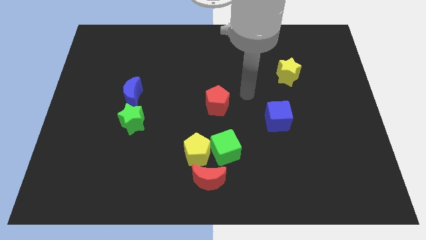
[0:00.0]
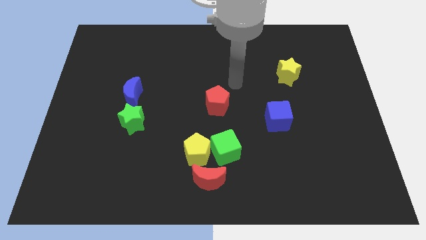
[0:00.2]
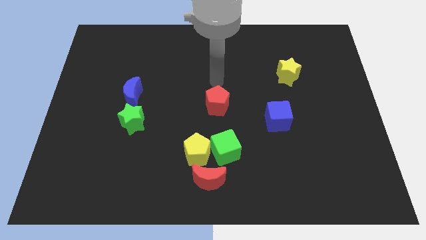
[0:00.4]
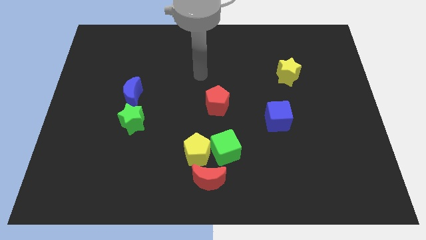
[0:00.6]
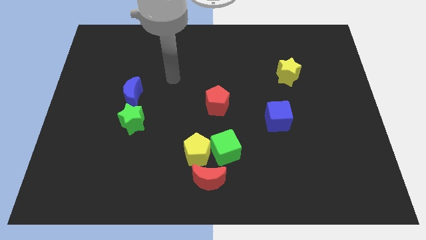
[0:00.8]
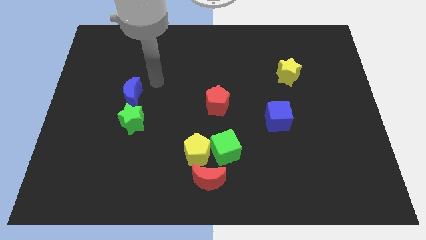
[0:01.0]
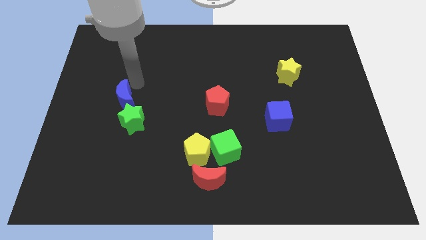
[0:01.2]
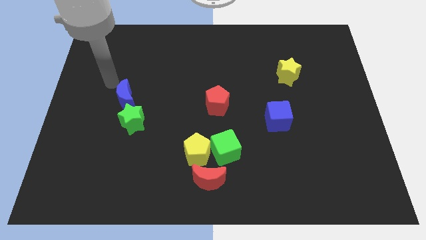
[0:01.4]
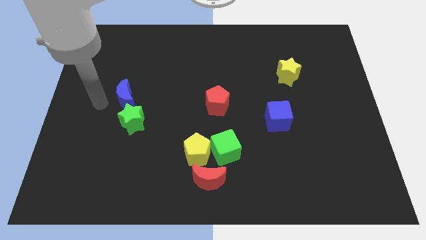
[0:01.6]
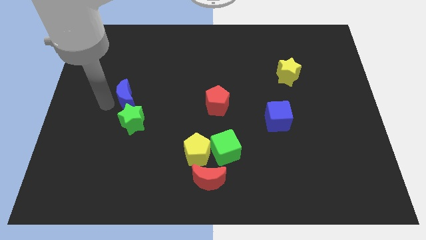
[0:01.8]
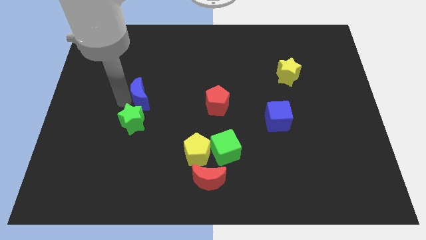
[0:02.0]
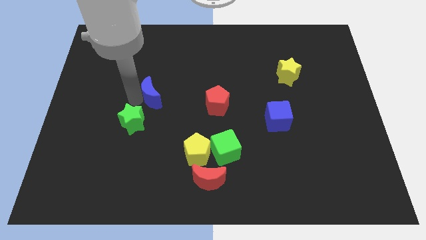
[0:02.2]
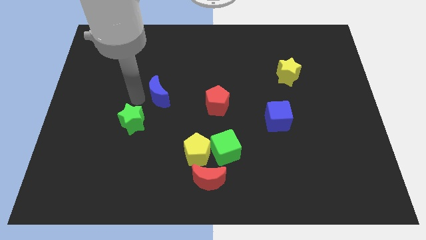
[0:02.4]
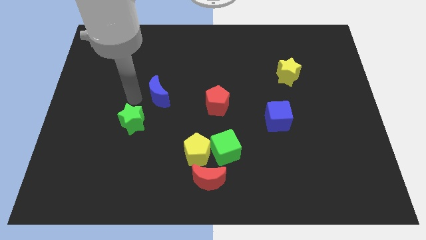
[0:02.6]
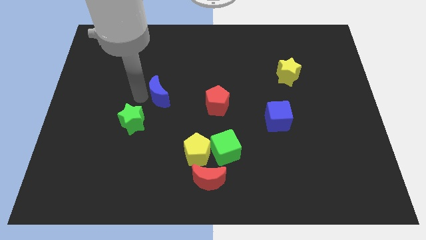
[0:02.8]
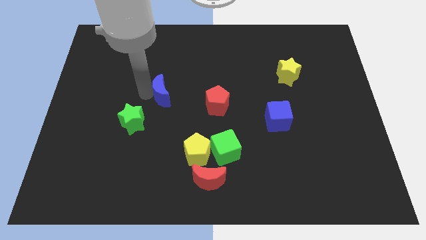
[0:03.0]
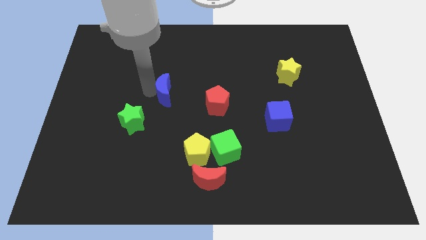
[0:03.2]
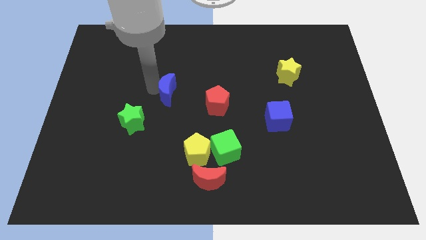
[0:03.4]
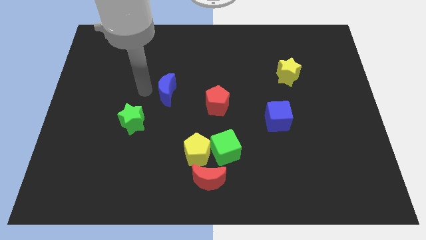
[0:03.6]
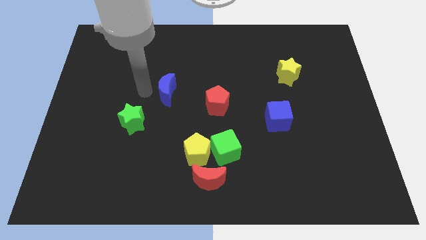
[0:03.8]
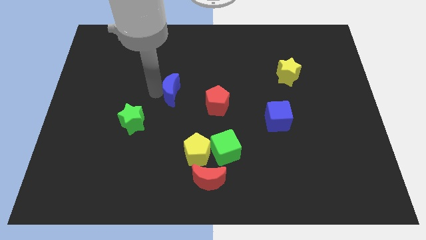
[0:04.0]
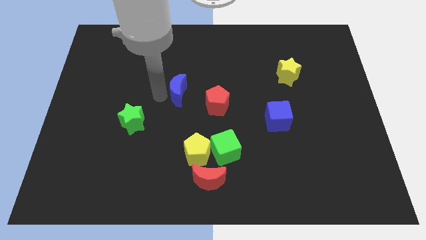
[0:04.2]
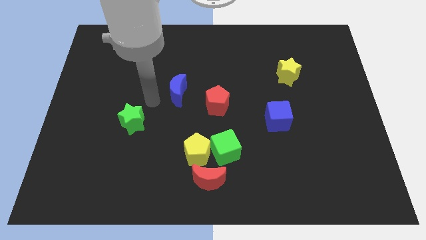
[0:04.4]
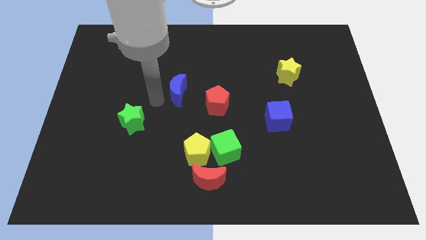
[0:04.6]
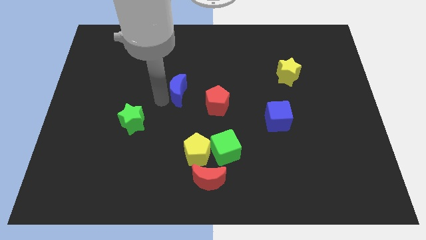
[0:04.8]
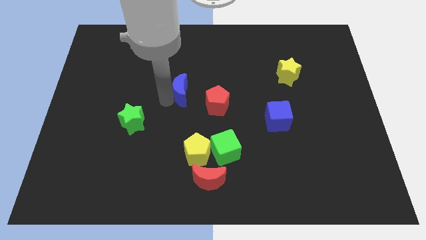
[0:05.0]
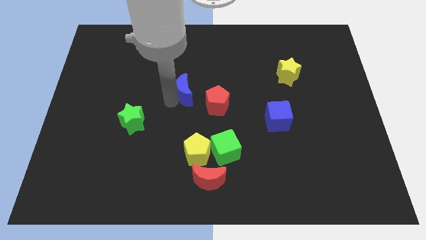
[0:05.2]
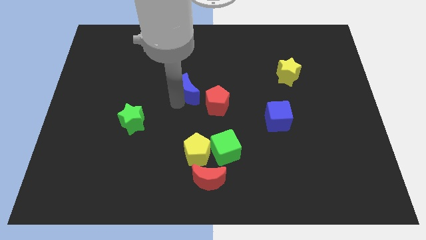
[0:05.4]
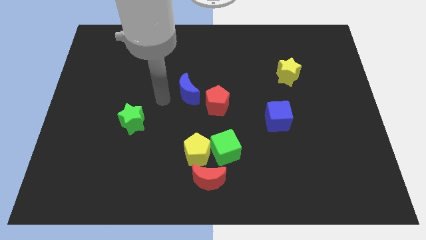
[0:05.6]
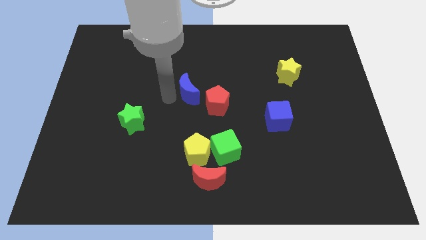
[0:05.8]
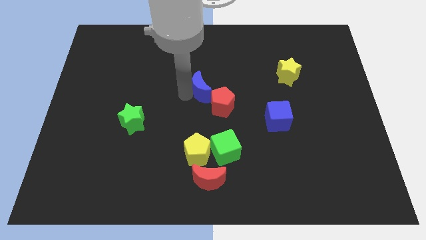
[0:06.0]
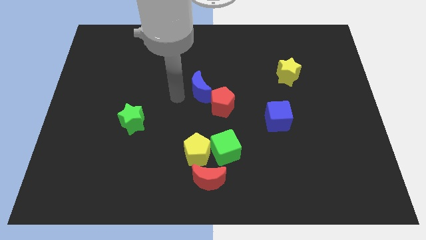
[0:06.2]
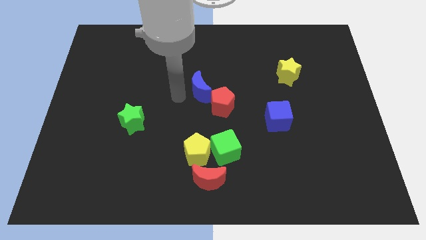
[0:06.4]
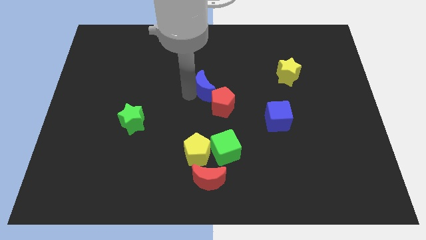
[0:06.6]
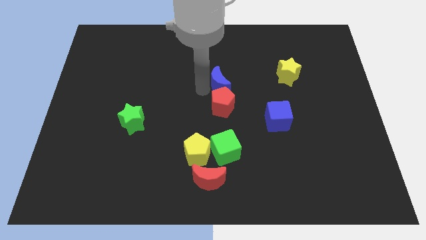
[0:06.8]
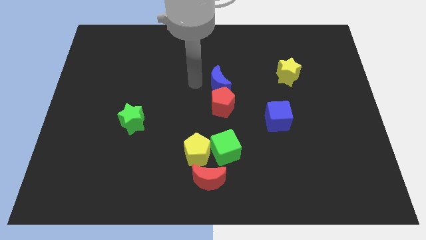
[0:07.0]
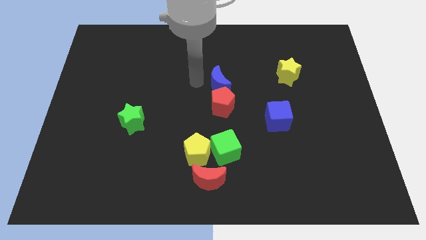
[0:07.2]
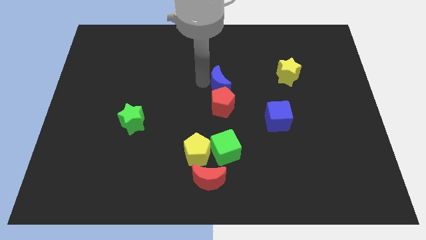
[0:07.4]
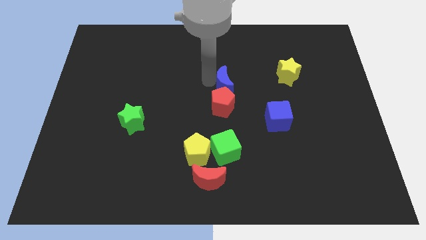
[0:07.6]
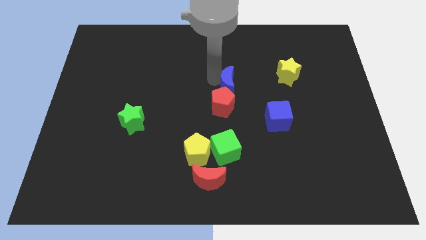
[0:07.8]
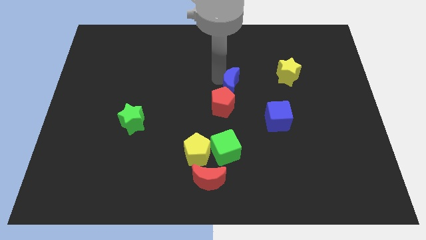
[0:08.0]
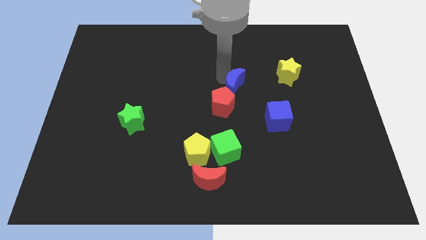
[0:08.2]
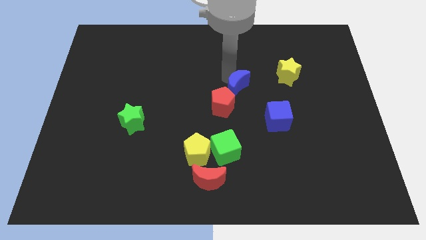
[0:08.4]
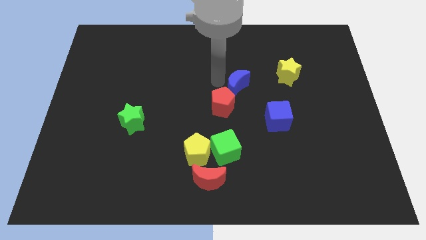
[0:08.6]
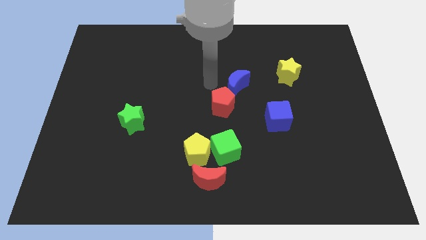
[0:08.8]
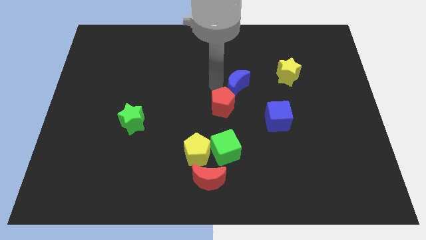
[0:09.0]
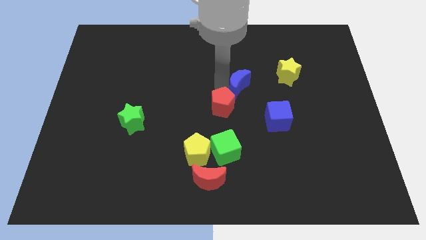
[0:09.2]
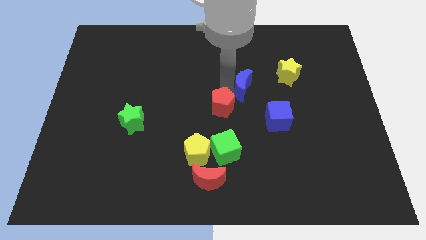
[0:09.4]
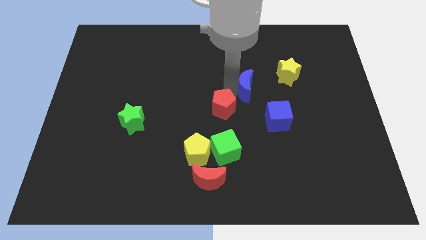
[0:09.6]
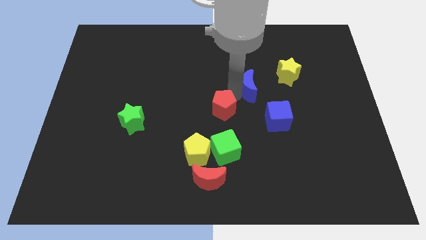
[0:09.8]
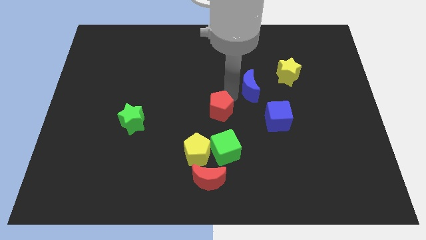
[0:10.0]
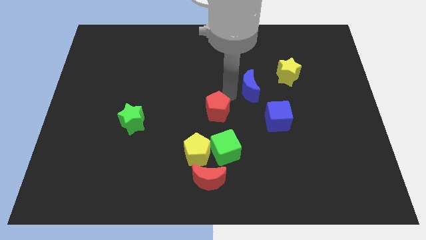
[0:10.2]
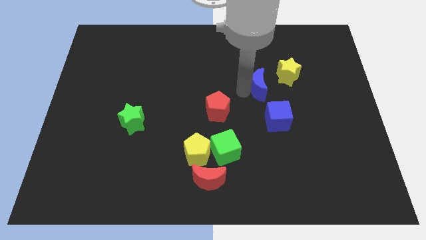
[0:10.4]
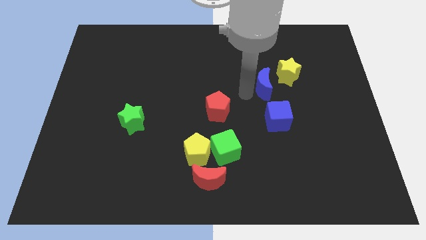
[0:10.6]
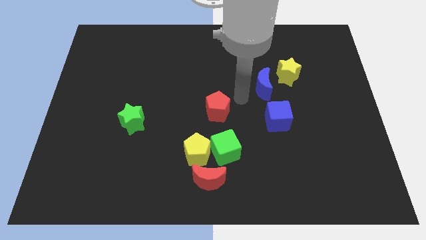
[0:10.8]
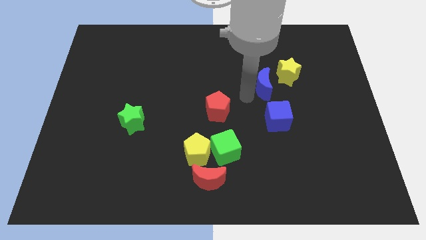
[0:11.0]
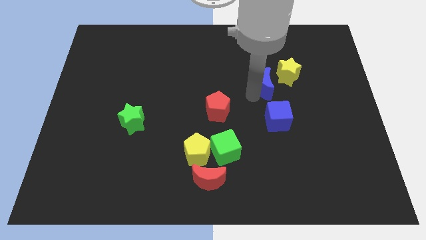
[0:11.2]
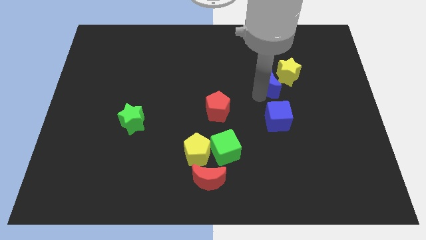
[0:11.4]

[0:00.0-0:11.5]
put the blue moon close to the yellow star

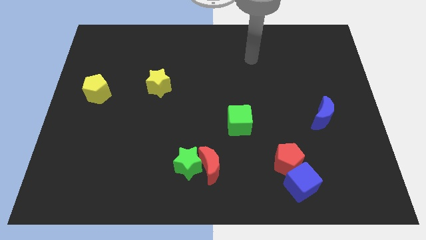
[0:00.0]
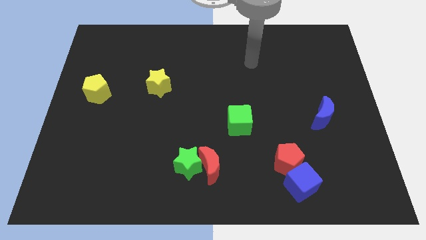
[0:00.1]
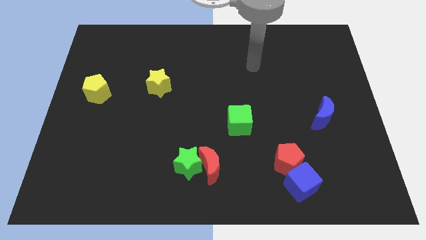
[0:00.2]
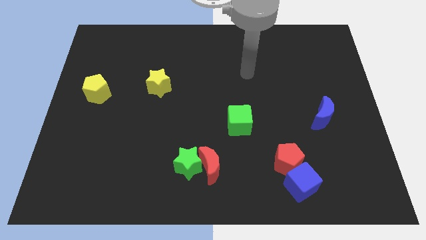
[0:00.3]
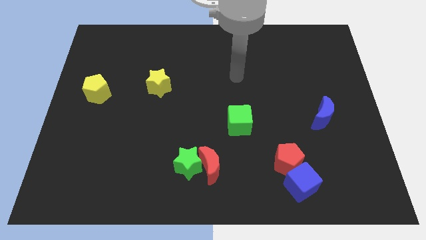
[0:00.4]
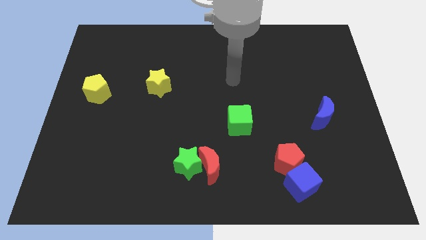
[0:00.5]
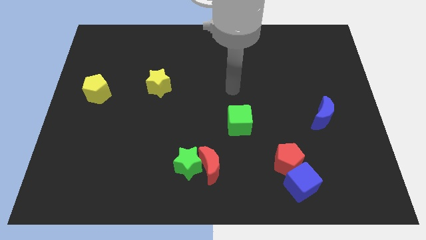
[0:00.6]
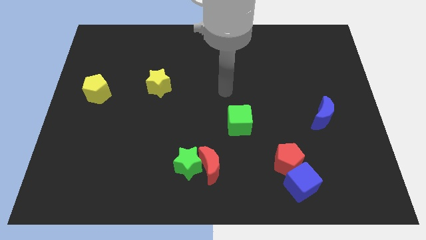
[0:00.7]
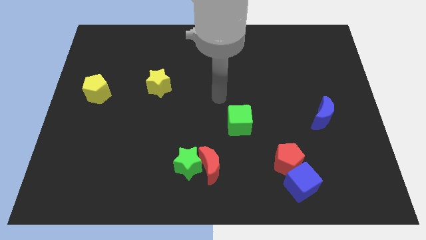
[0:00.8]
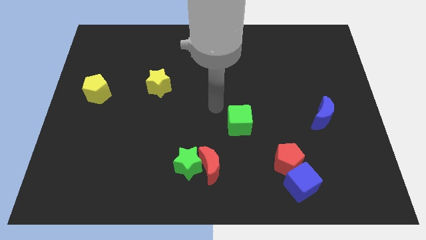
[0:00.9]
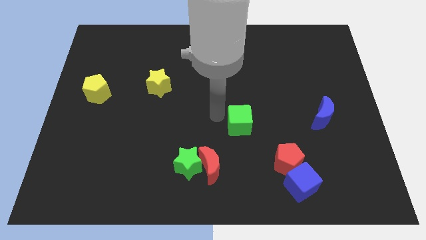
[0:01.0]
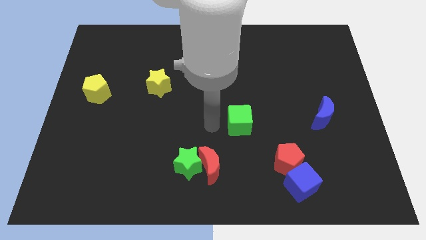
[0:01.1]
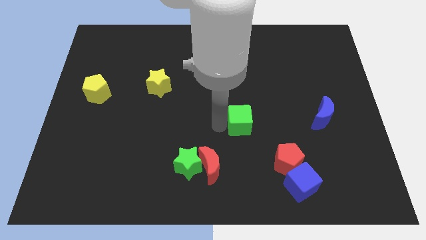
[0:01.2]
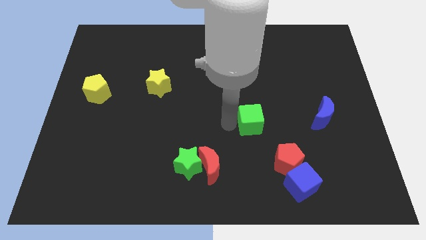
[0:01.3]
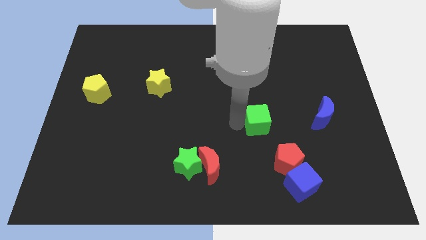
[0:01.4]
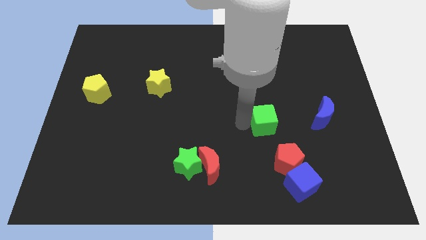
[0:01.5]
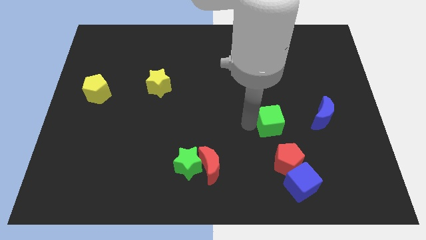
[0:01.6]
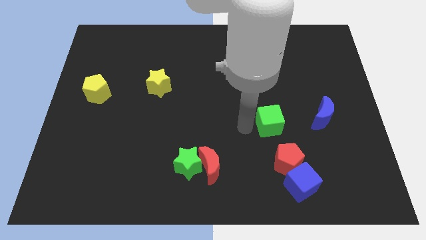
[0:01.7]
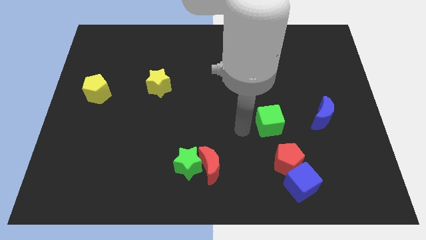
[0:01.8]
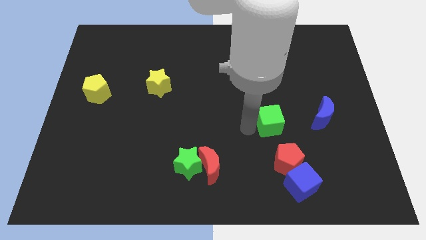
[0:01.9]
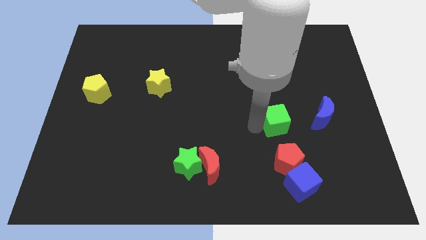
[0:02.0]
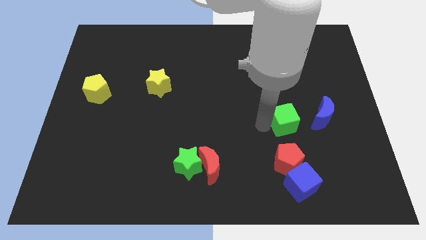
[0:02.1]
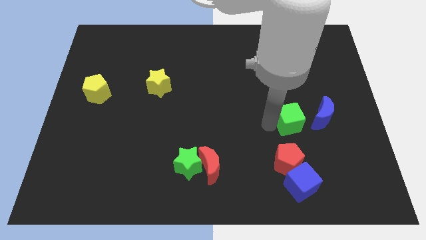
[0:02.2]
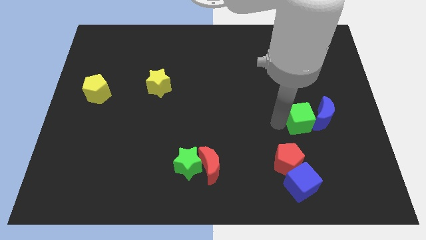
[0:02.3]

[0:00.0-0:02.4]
move the green cube to the blue moon
